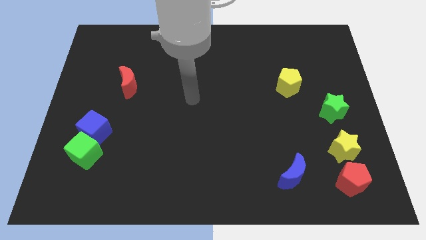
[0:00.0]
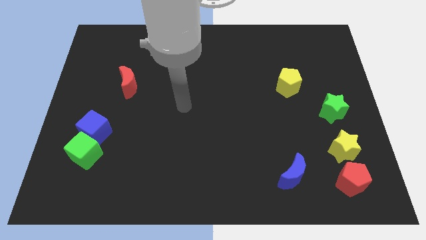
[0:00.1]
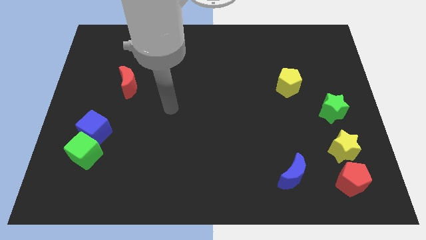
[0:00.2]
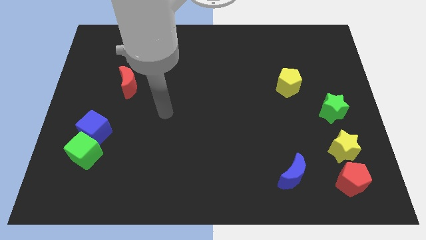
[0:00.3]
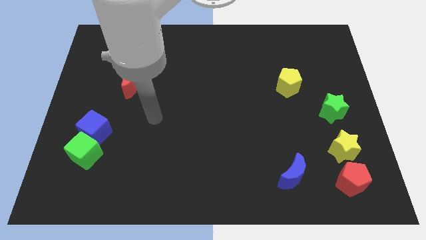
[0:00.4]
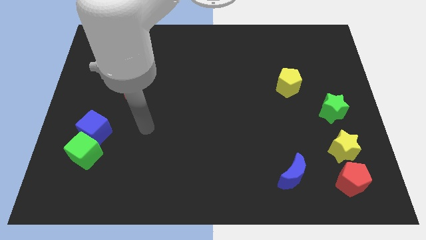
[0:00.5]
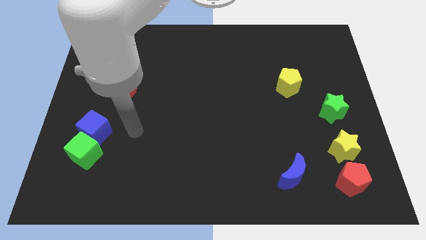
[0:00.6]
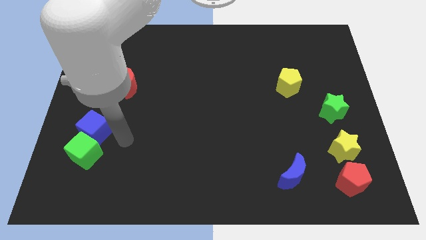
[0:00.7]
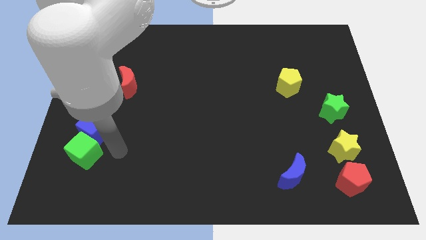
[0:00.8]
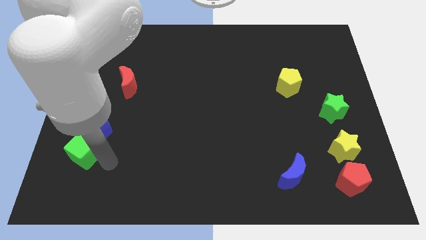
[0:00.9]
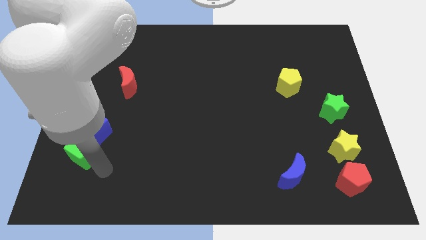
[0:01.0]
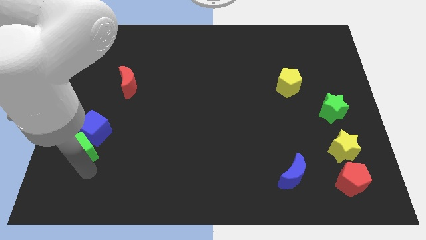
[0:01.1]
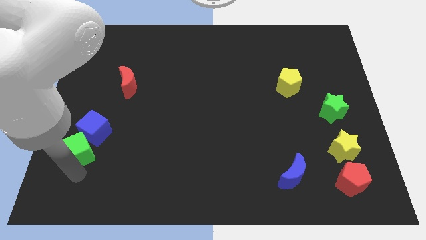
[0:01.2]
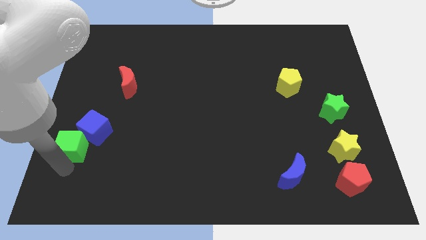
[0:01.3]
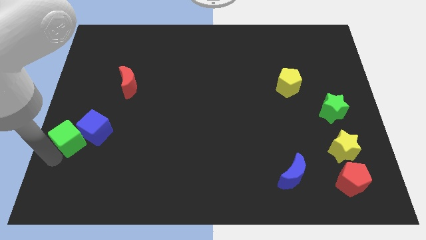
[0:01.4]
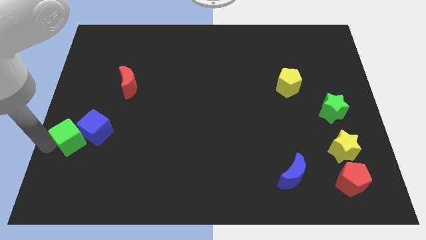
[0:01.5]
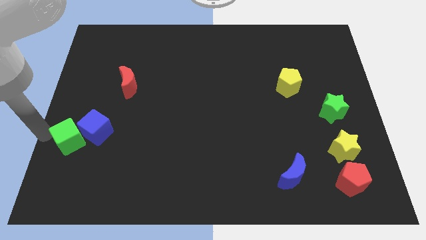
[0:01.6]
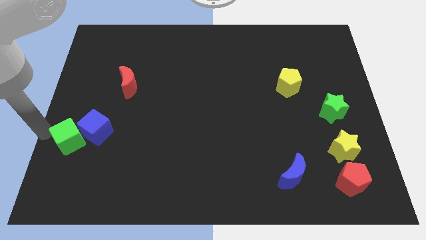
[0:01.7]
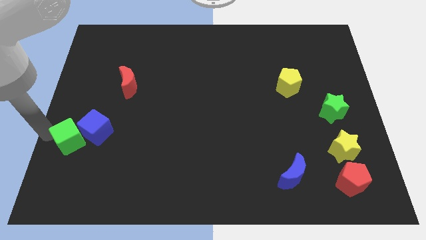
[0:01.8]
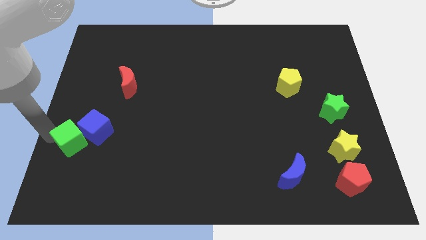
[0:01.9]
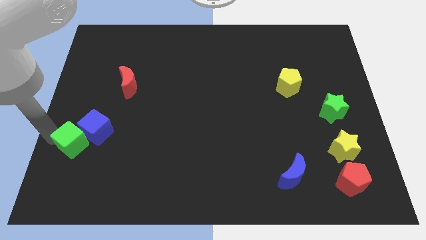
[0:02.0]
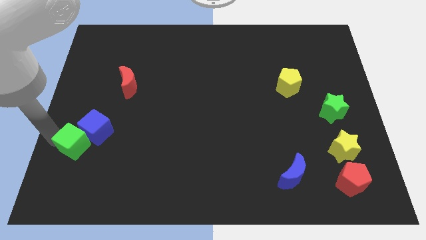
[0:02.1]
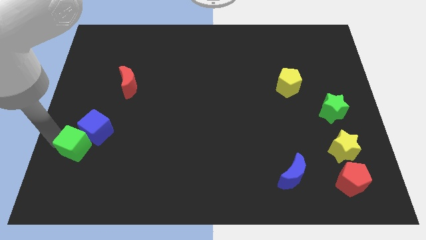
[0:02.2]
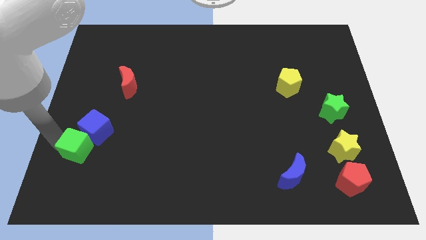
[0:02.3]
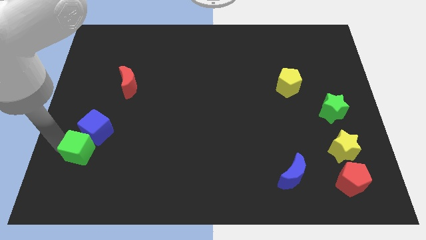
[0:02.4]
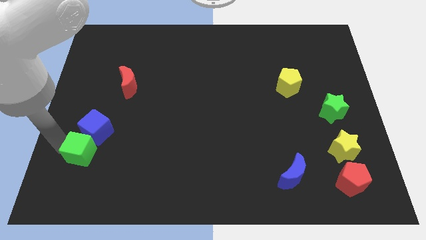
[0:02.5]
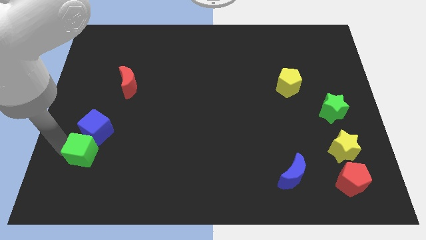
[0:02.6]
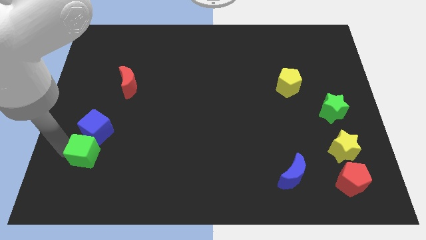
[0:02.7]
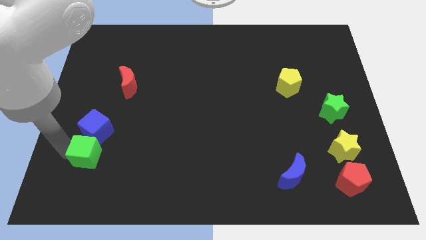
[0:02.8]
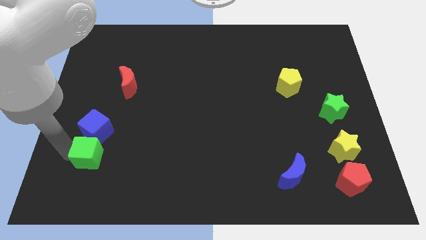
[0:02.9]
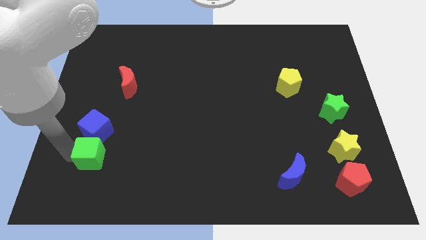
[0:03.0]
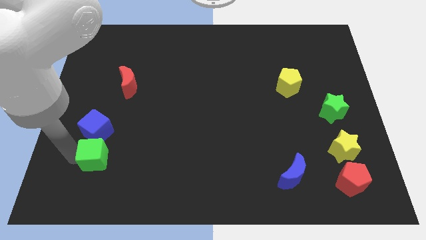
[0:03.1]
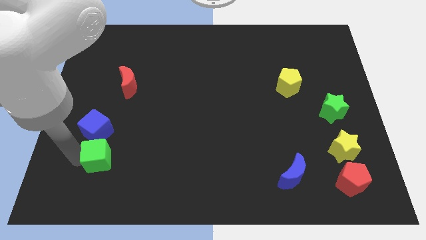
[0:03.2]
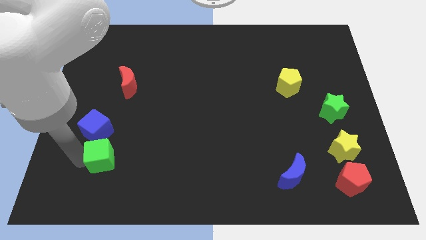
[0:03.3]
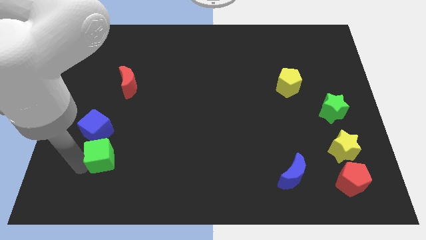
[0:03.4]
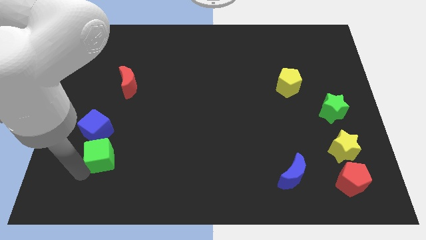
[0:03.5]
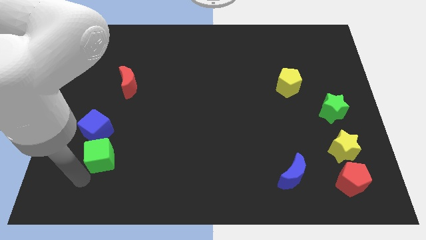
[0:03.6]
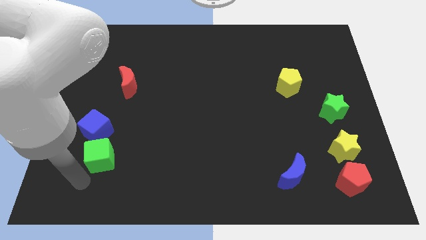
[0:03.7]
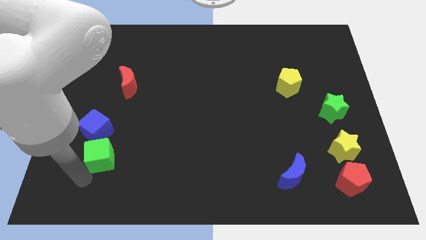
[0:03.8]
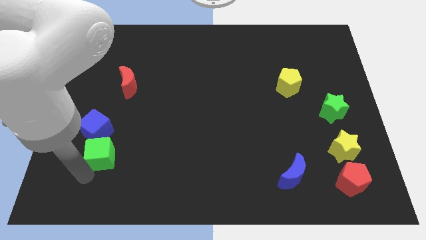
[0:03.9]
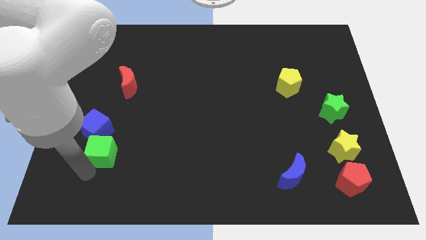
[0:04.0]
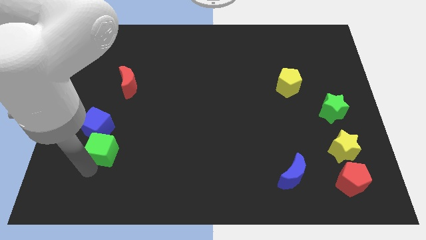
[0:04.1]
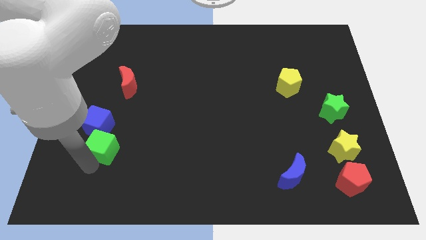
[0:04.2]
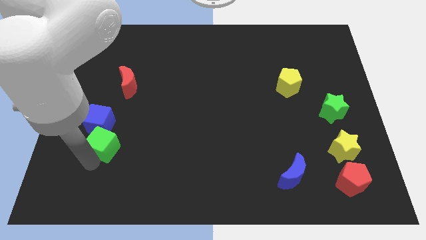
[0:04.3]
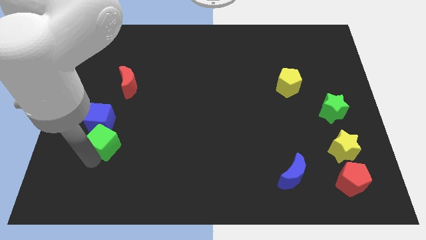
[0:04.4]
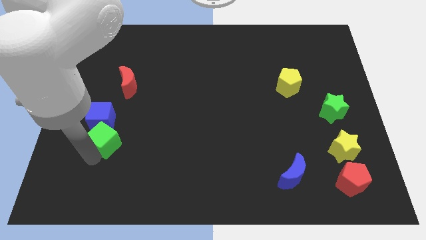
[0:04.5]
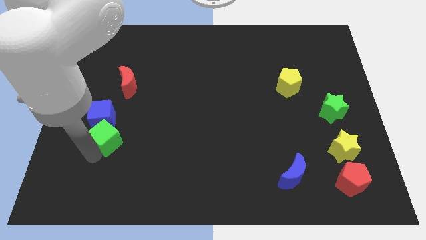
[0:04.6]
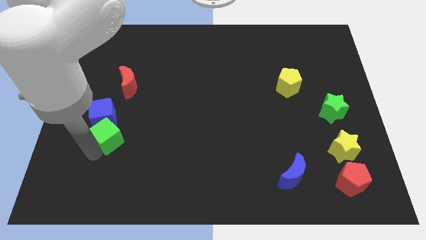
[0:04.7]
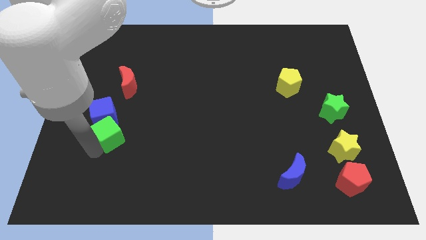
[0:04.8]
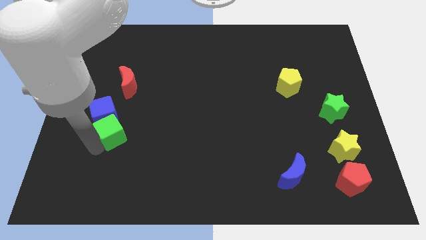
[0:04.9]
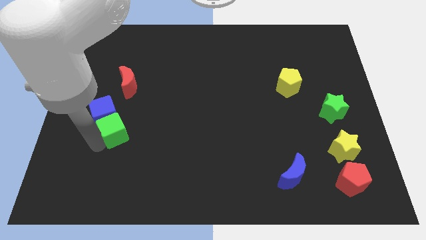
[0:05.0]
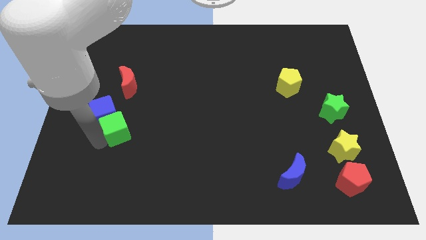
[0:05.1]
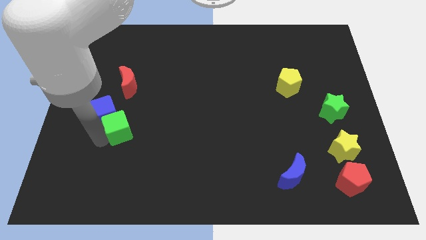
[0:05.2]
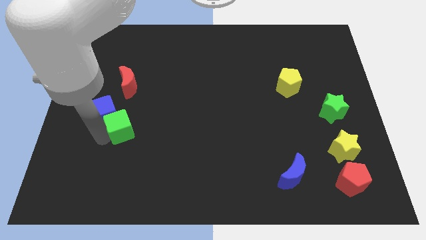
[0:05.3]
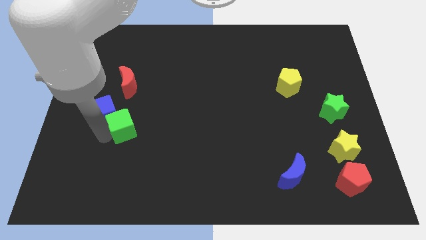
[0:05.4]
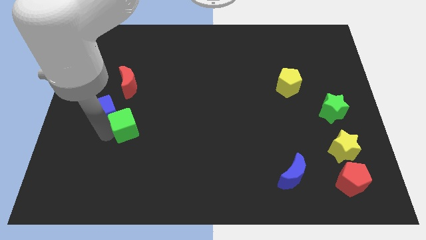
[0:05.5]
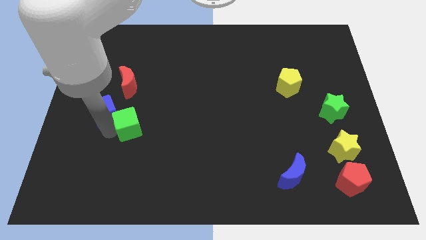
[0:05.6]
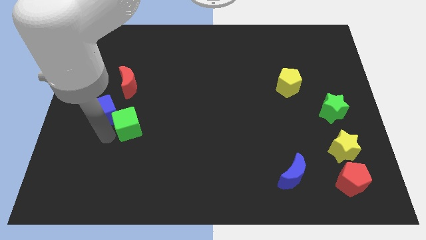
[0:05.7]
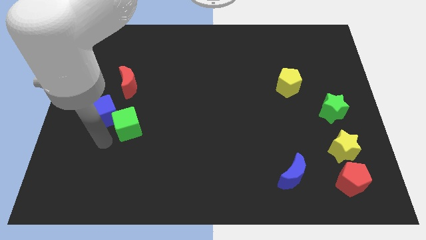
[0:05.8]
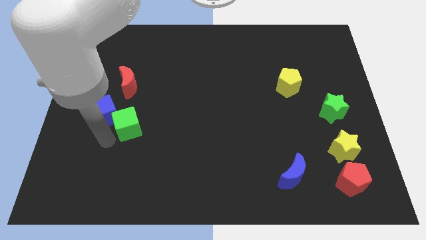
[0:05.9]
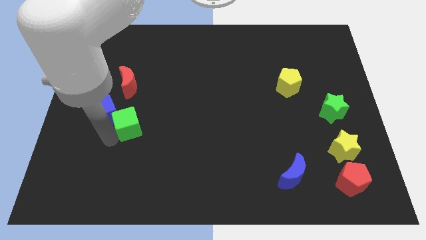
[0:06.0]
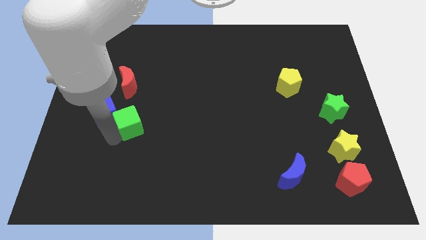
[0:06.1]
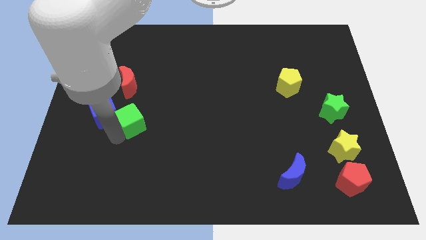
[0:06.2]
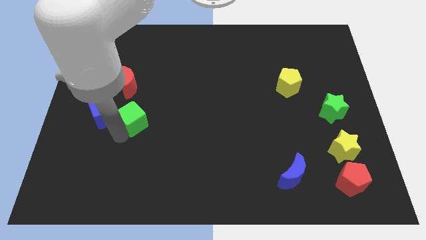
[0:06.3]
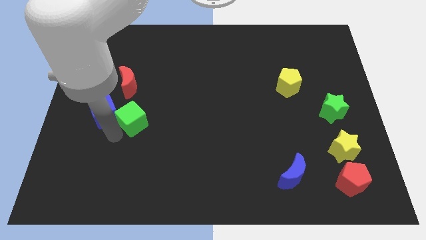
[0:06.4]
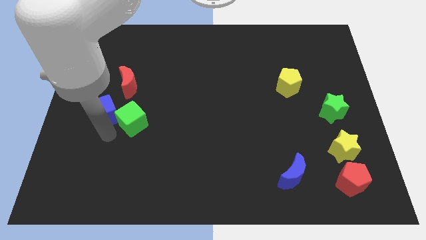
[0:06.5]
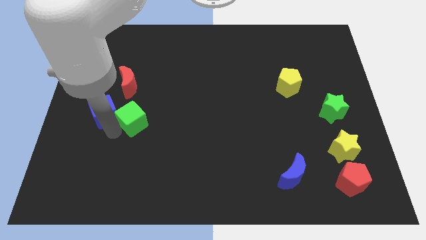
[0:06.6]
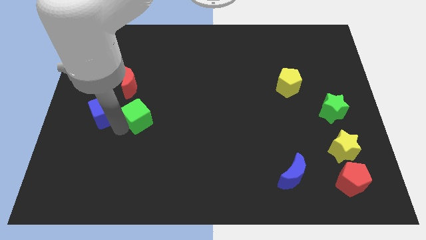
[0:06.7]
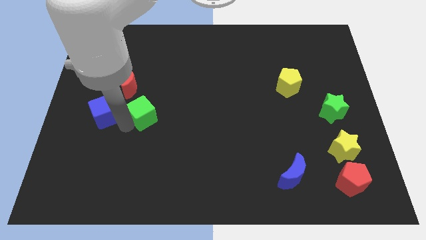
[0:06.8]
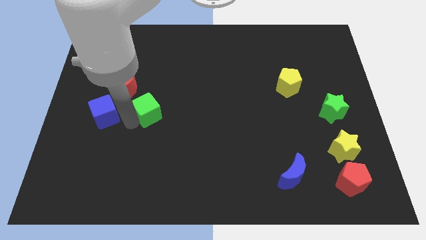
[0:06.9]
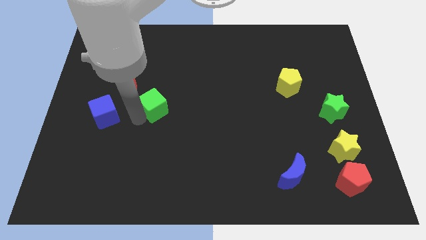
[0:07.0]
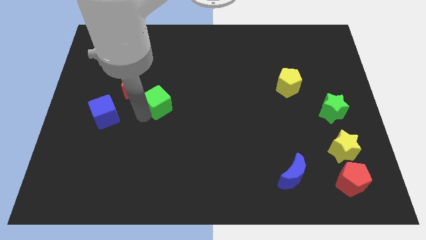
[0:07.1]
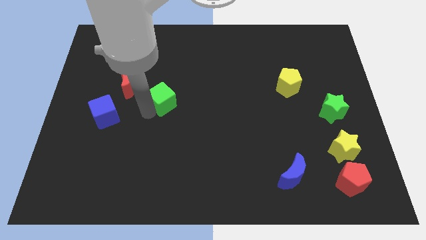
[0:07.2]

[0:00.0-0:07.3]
slide the green cube up and to the right diagonally

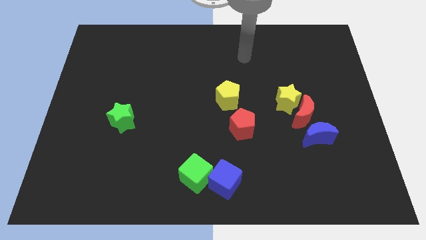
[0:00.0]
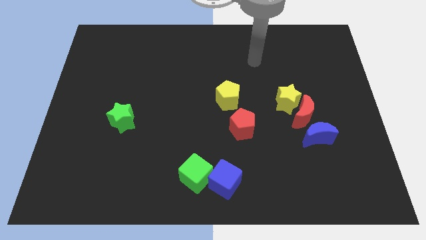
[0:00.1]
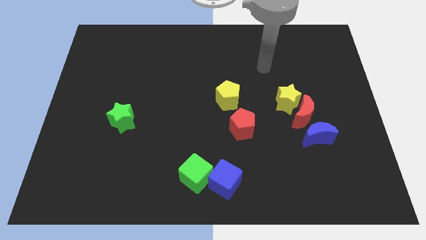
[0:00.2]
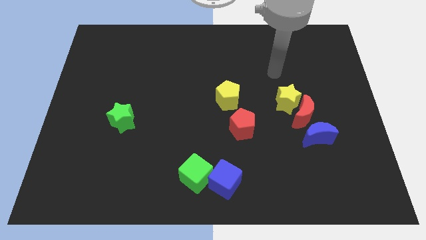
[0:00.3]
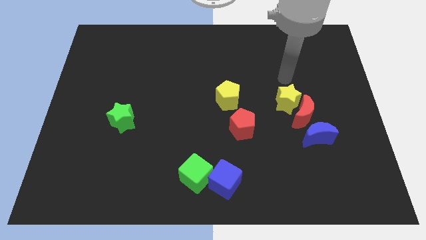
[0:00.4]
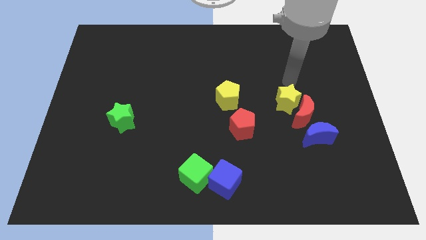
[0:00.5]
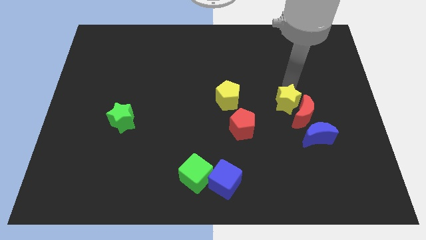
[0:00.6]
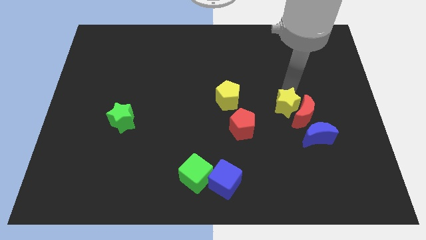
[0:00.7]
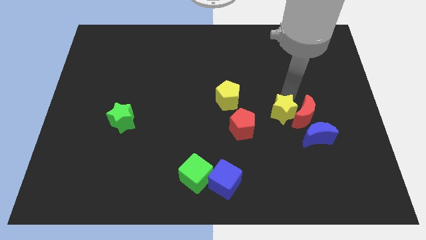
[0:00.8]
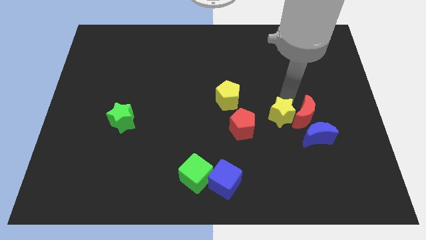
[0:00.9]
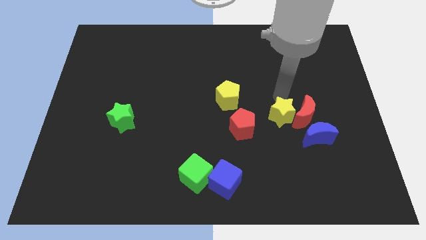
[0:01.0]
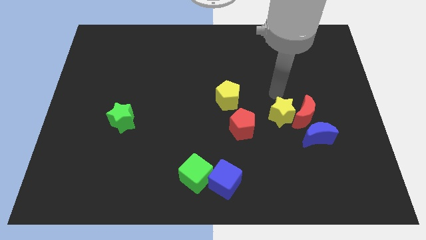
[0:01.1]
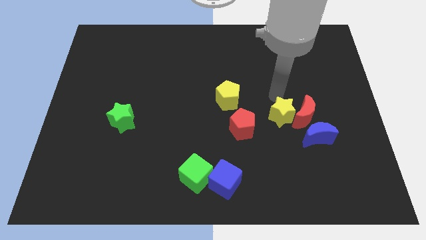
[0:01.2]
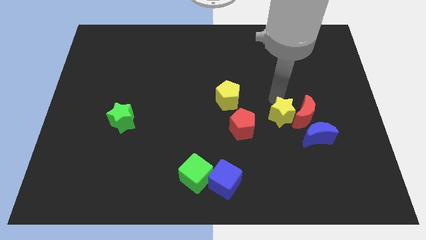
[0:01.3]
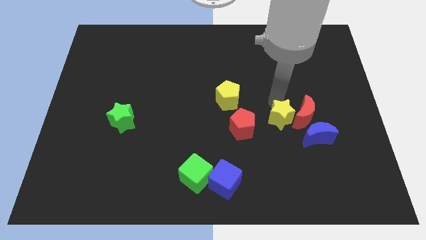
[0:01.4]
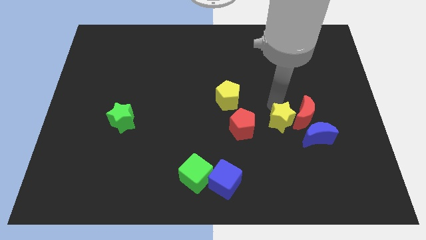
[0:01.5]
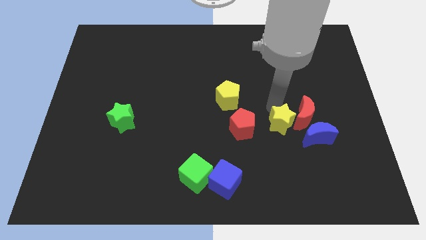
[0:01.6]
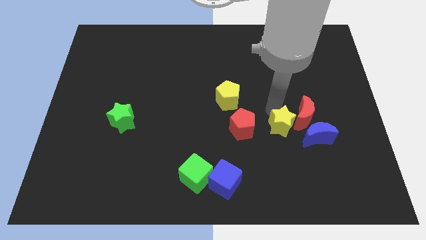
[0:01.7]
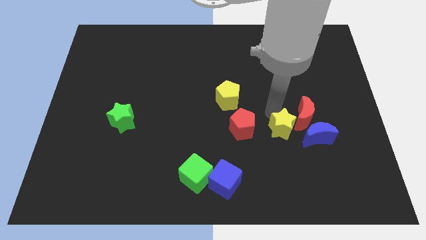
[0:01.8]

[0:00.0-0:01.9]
move the yellow star a little downwards
